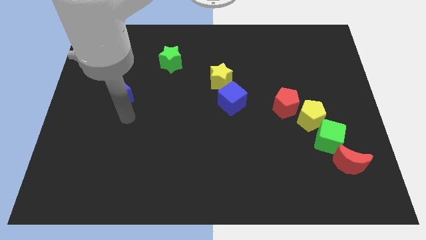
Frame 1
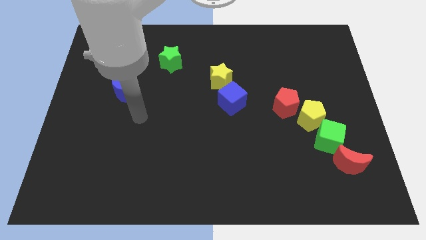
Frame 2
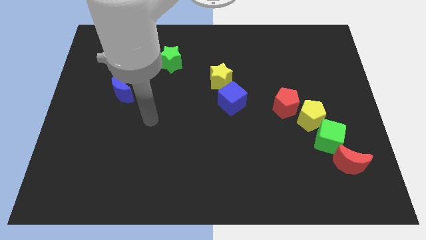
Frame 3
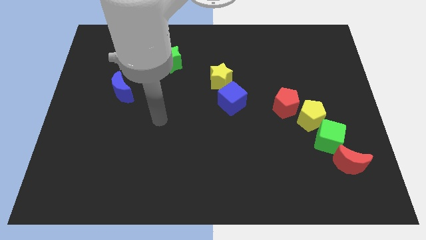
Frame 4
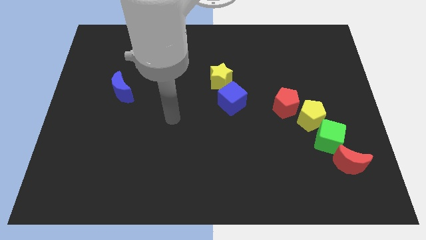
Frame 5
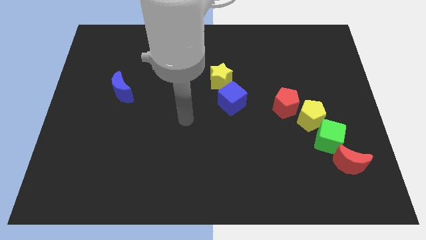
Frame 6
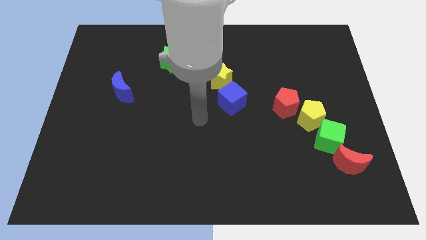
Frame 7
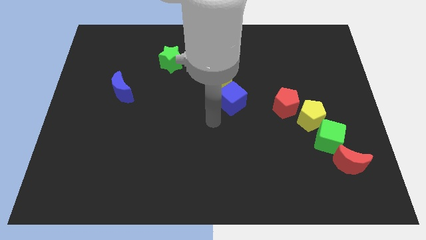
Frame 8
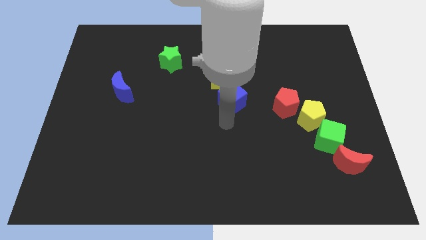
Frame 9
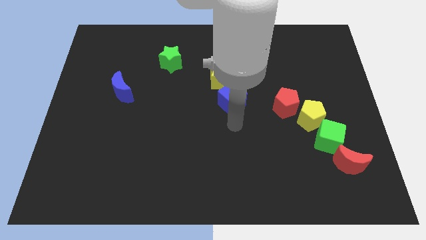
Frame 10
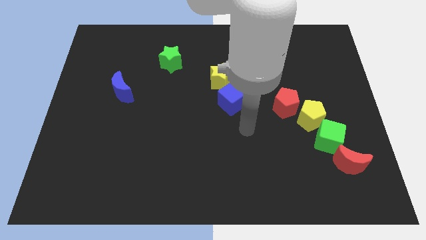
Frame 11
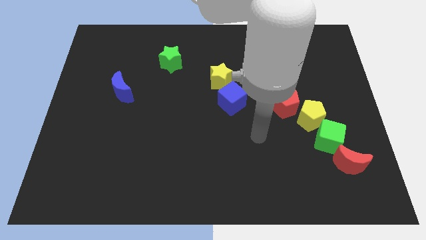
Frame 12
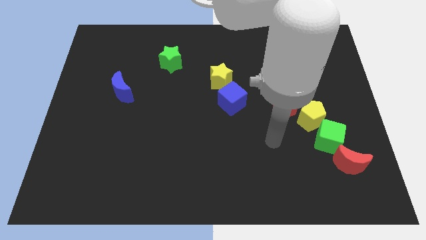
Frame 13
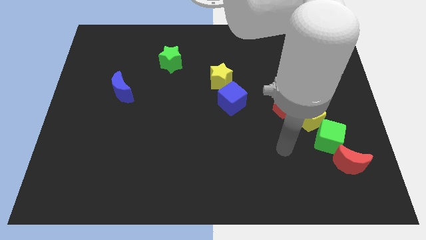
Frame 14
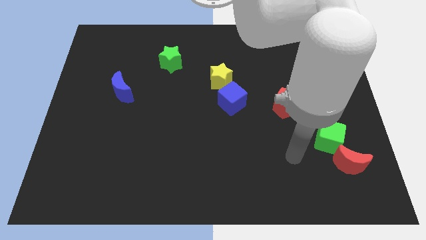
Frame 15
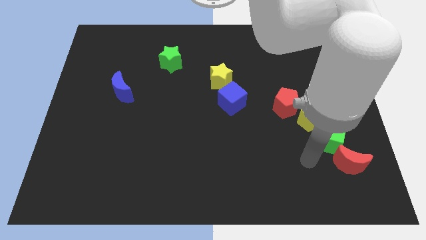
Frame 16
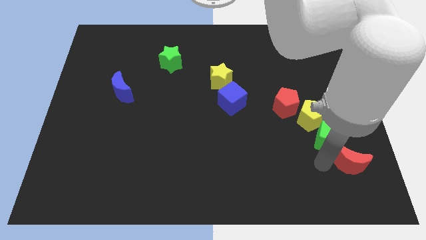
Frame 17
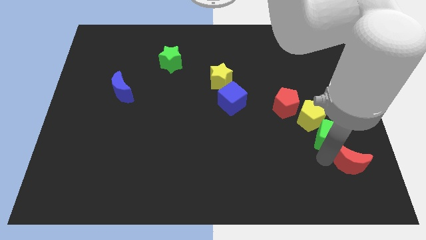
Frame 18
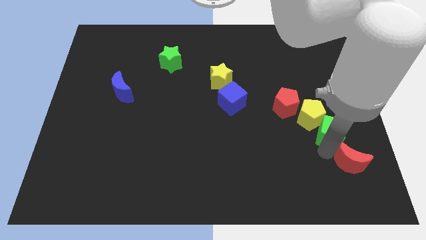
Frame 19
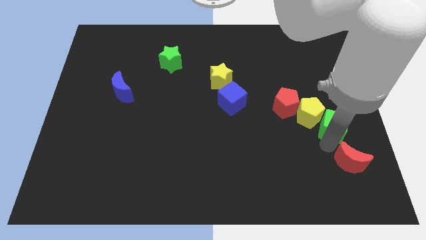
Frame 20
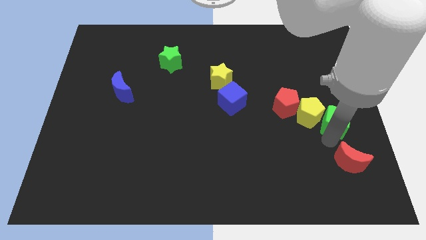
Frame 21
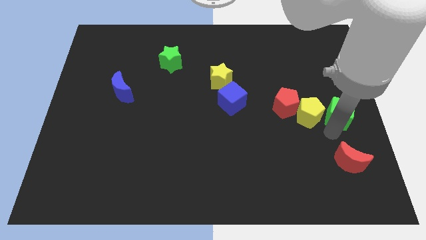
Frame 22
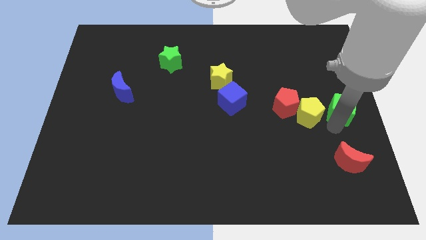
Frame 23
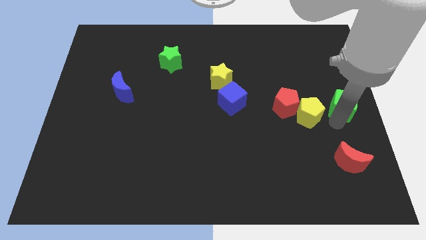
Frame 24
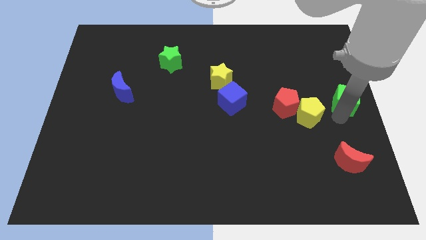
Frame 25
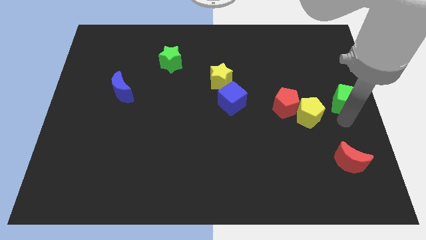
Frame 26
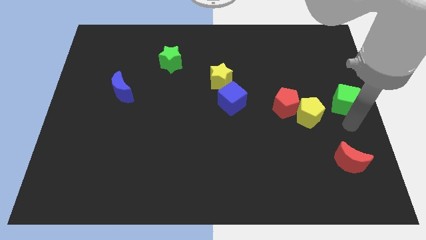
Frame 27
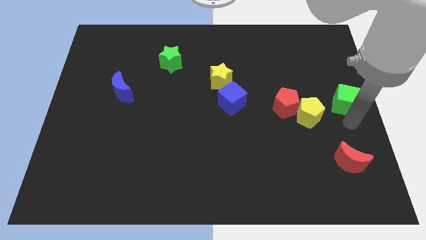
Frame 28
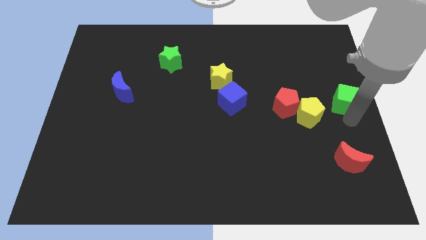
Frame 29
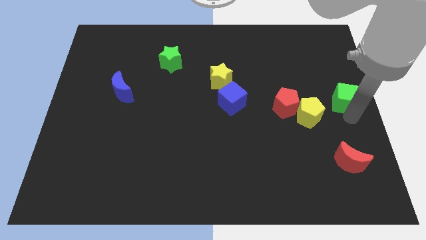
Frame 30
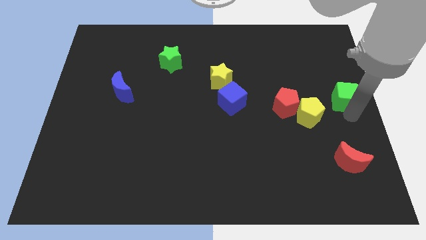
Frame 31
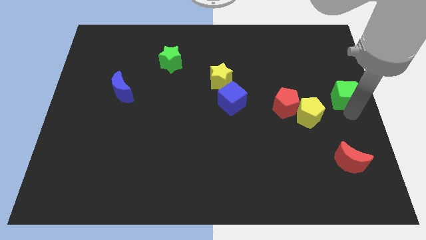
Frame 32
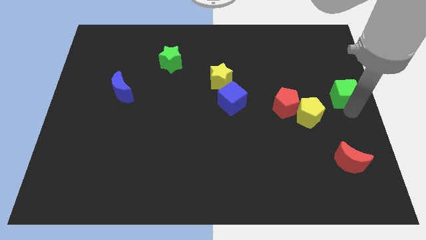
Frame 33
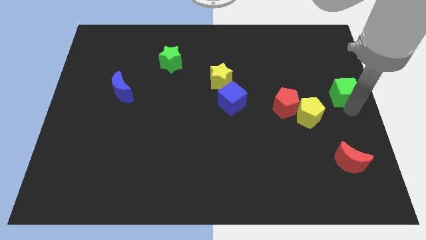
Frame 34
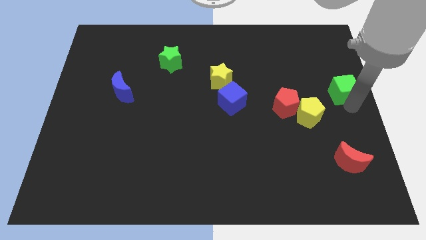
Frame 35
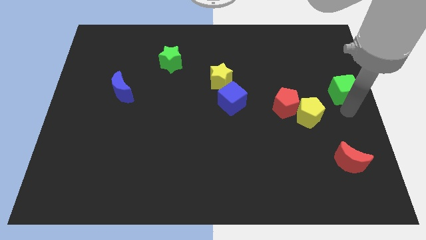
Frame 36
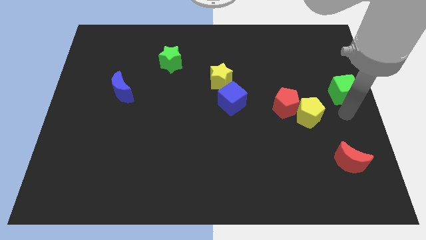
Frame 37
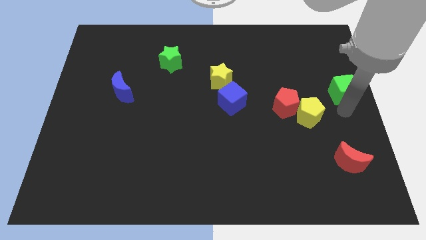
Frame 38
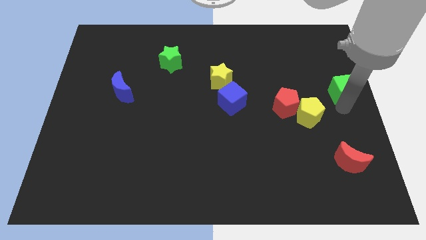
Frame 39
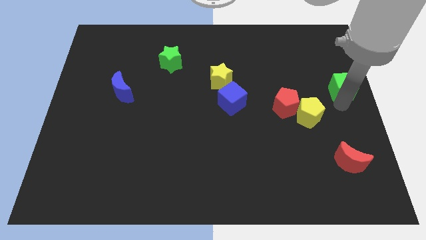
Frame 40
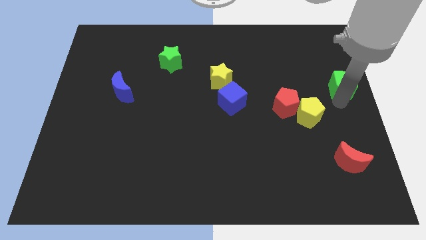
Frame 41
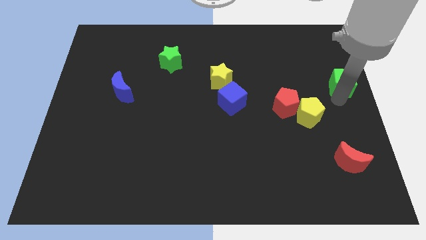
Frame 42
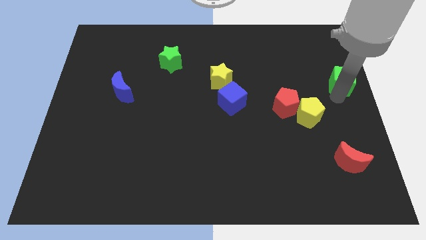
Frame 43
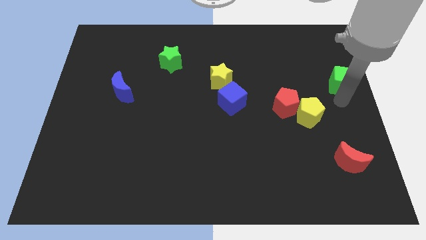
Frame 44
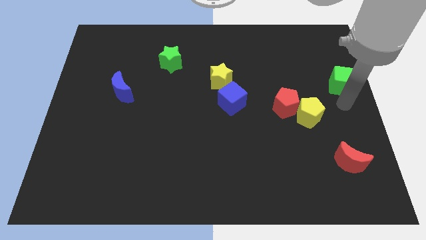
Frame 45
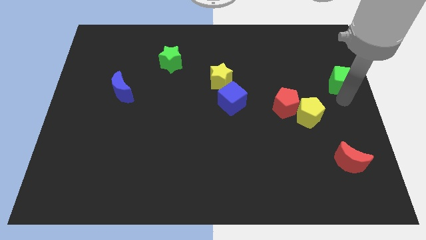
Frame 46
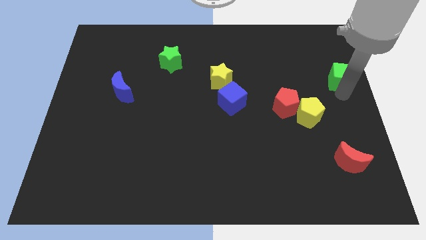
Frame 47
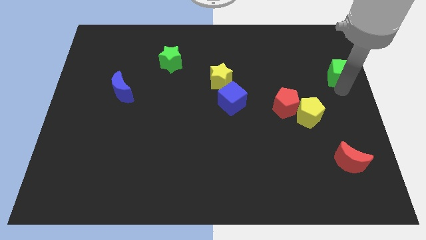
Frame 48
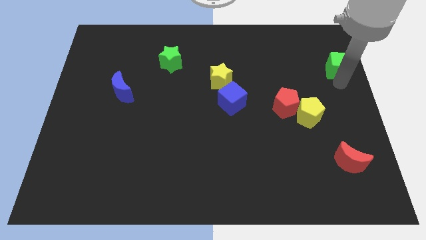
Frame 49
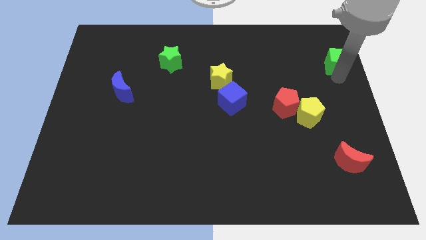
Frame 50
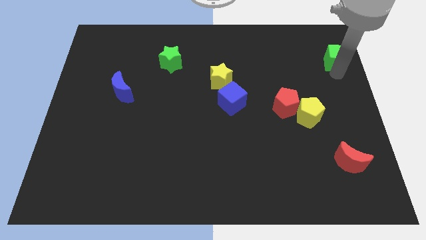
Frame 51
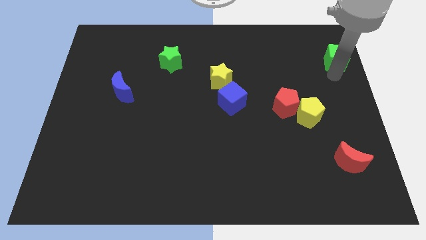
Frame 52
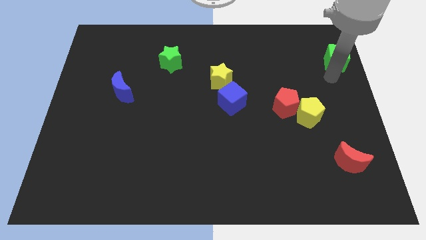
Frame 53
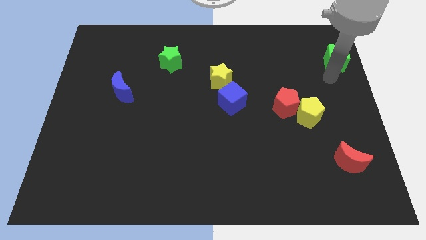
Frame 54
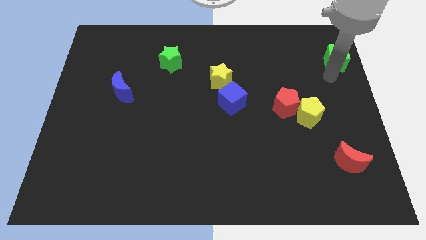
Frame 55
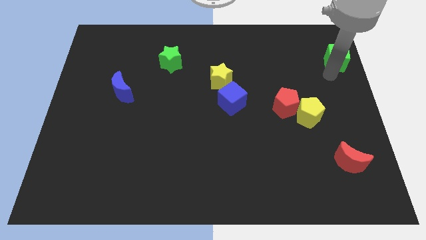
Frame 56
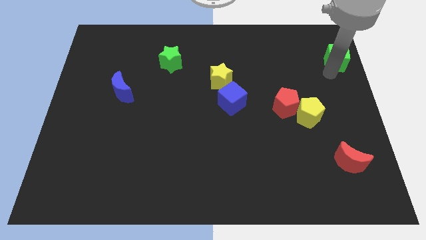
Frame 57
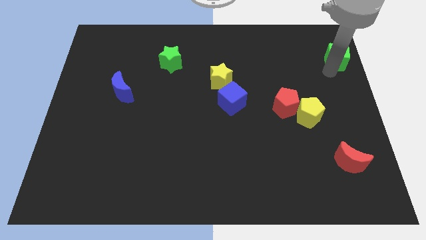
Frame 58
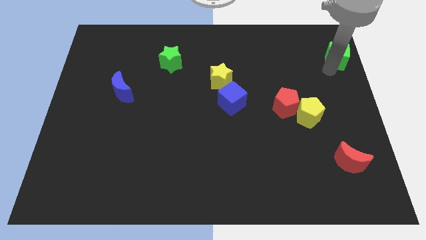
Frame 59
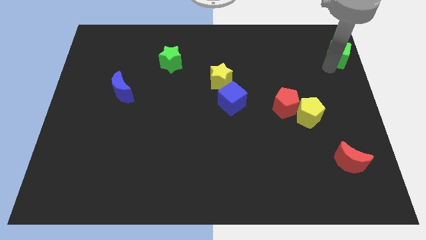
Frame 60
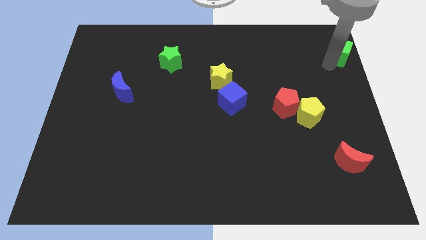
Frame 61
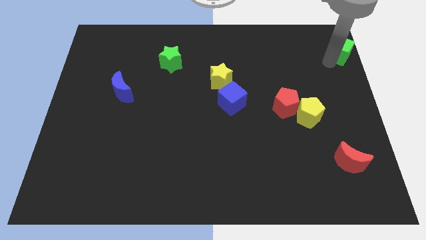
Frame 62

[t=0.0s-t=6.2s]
move the green cube to the top right
